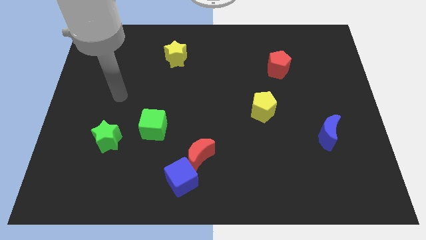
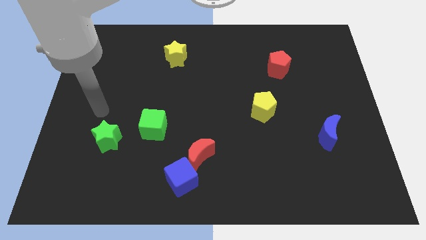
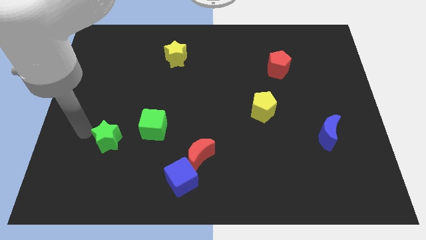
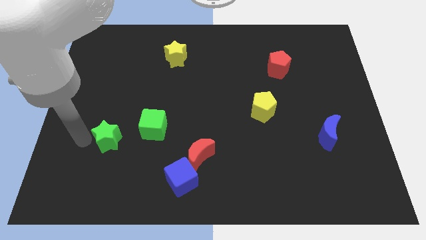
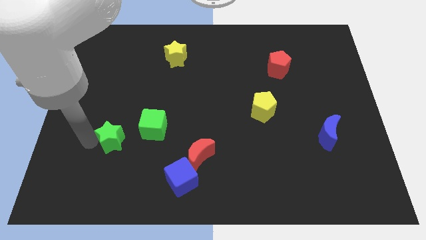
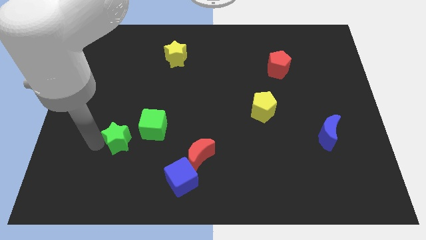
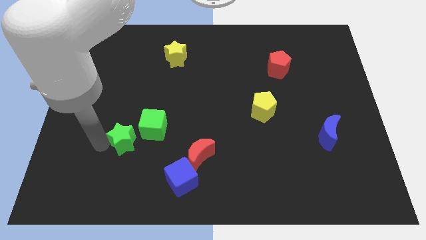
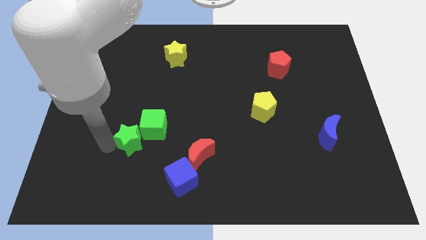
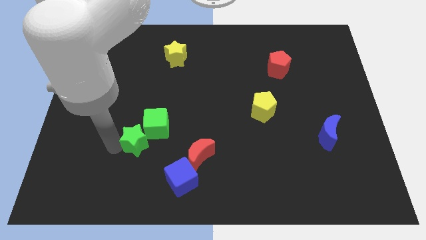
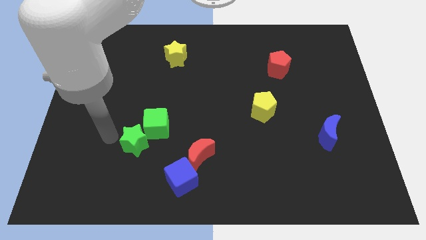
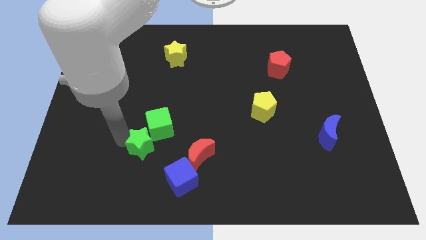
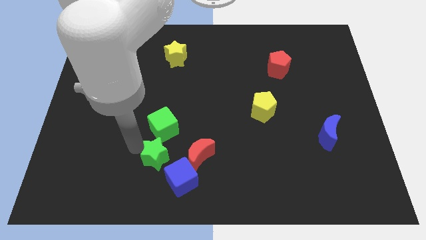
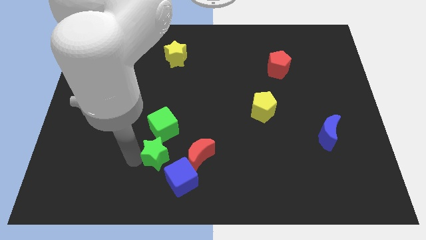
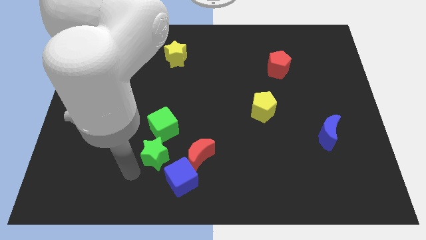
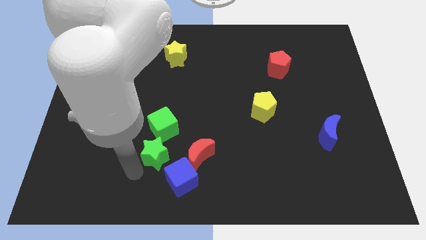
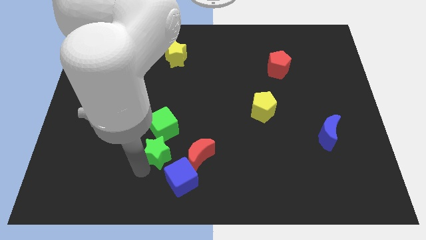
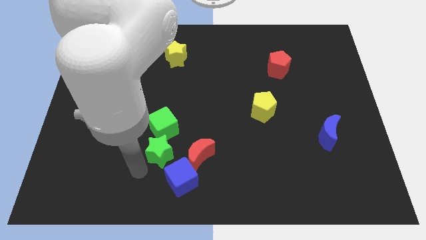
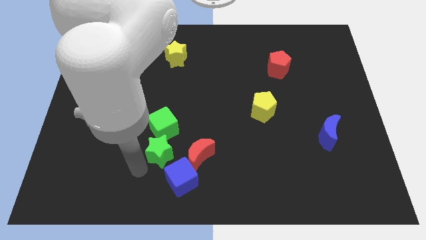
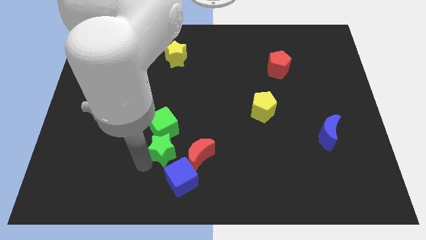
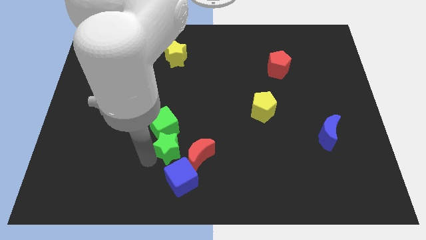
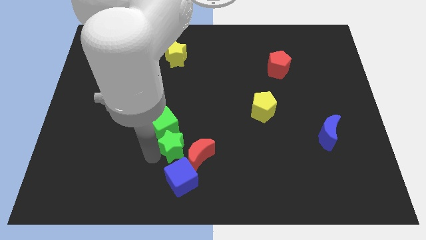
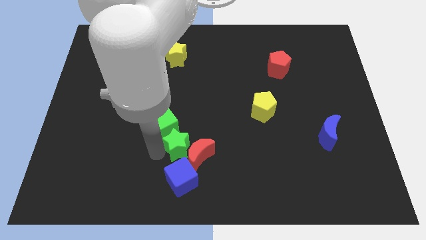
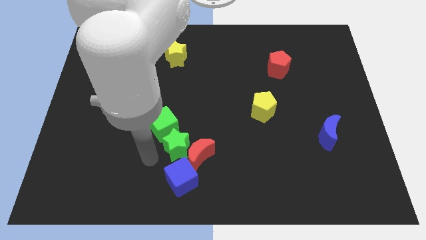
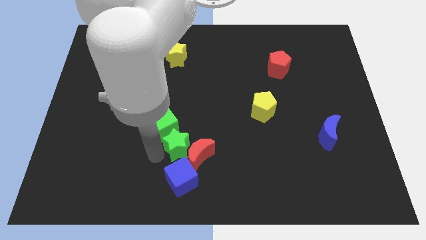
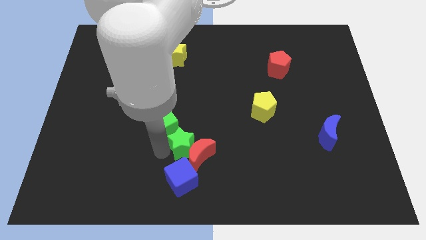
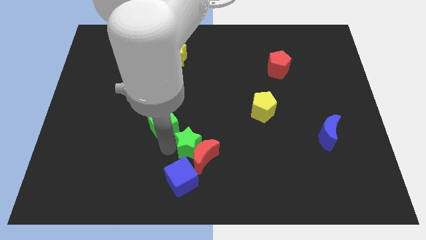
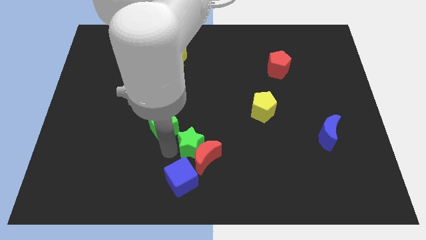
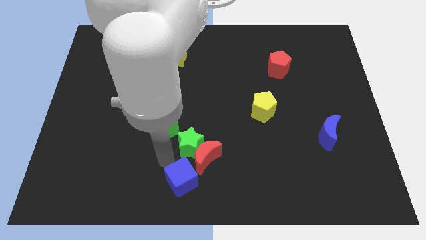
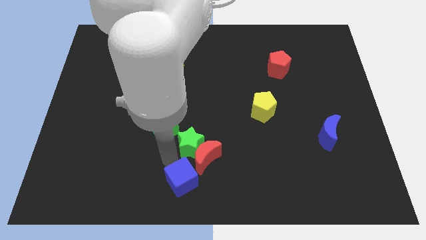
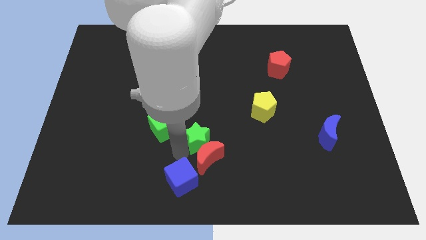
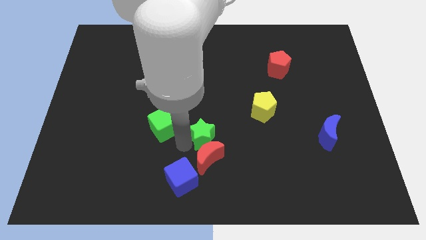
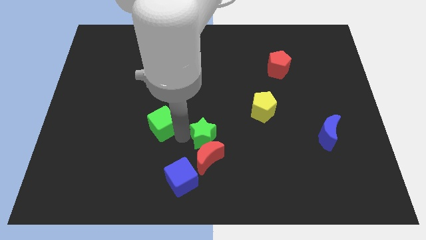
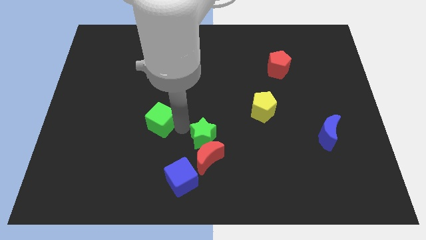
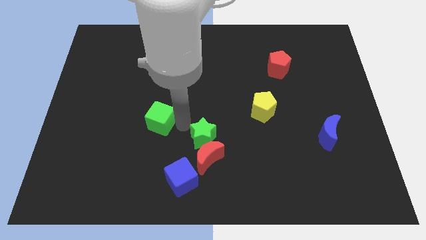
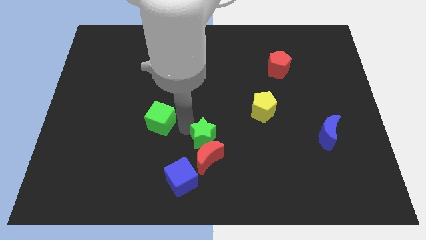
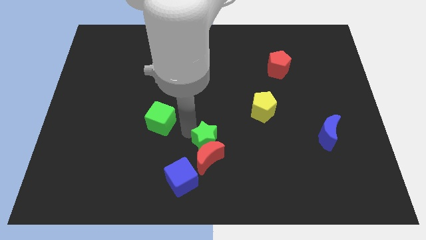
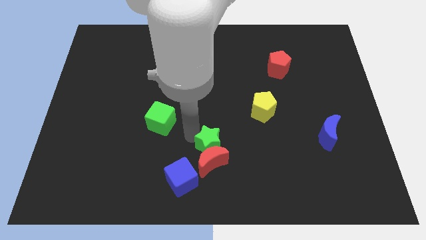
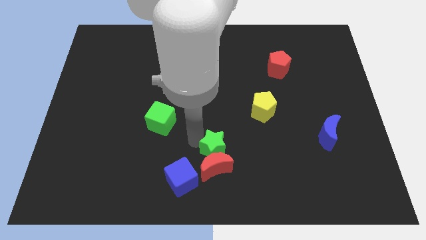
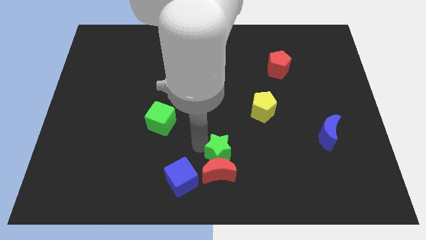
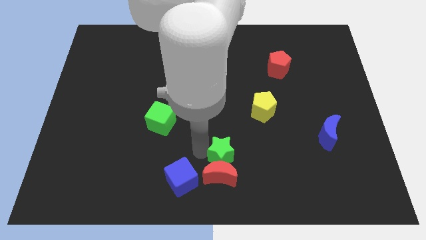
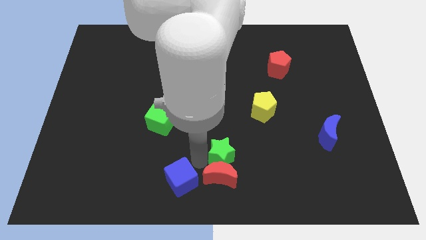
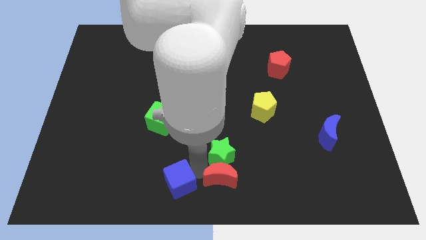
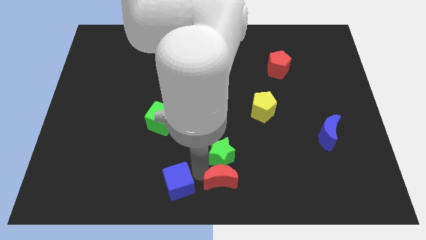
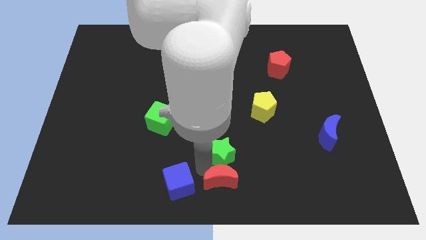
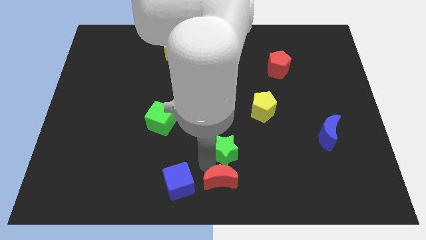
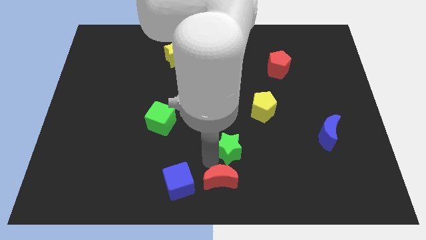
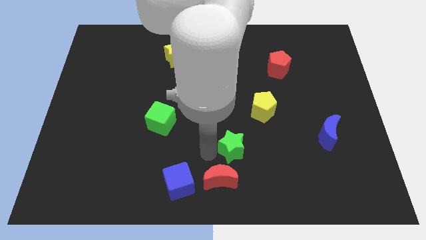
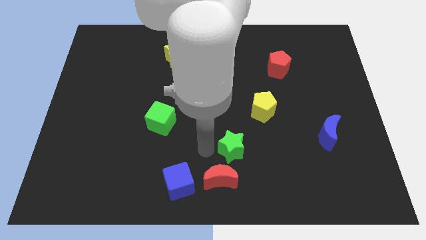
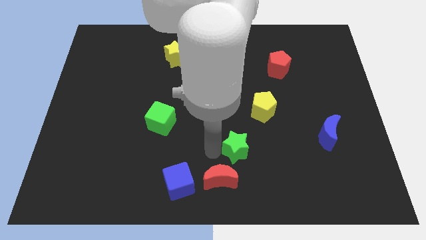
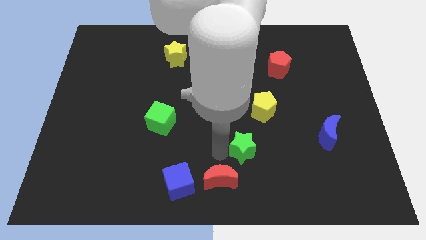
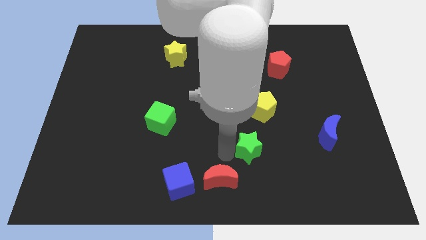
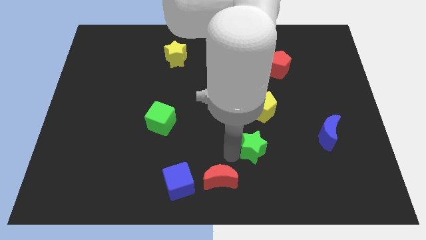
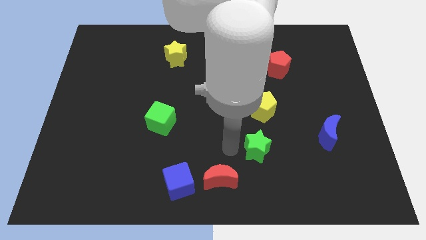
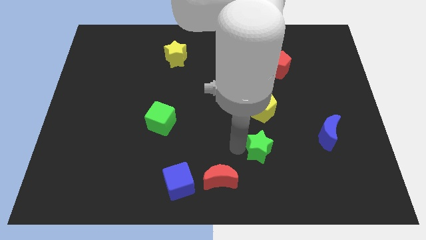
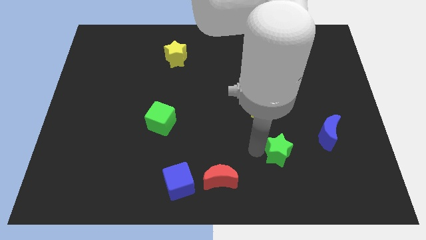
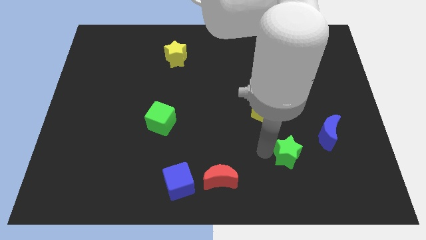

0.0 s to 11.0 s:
push the green star to the bottom left of the blue moon

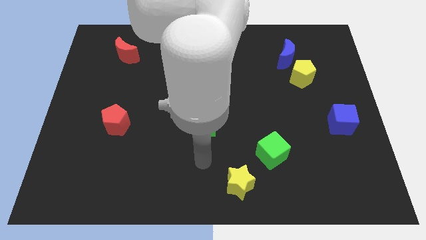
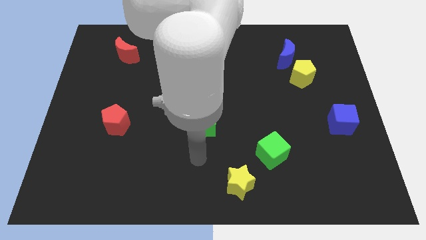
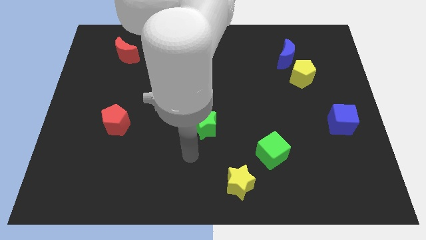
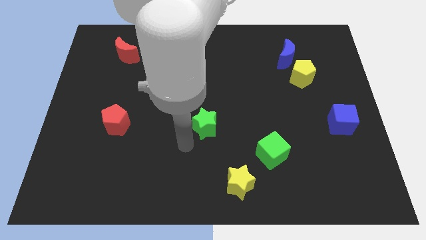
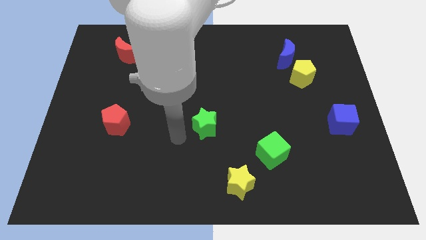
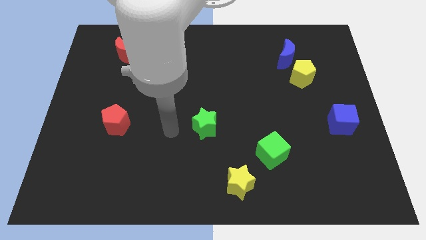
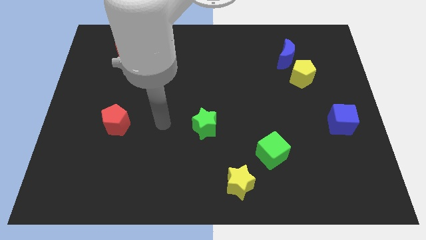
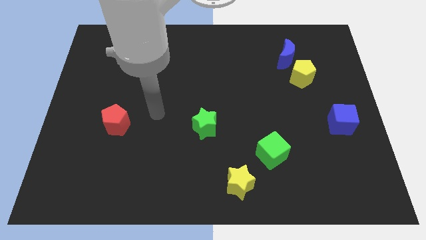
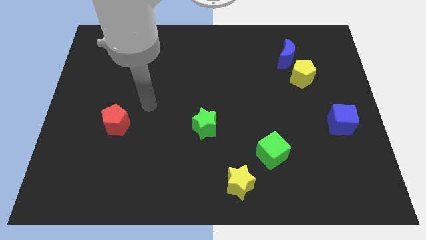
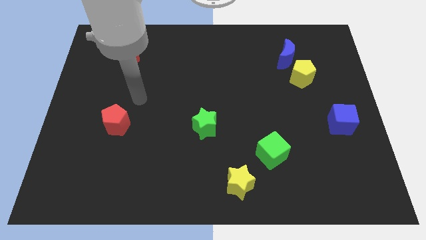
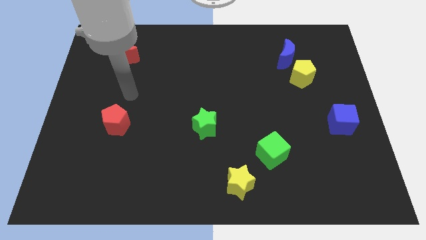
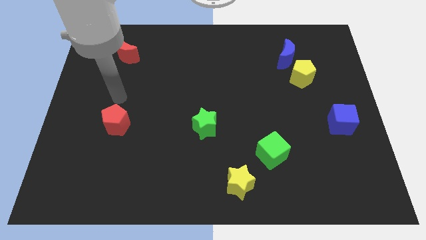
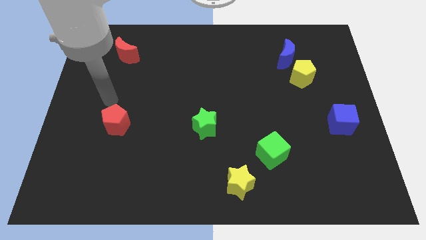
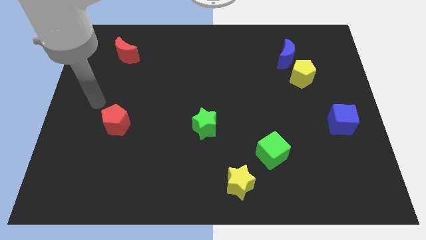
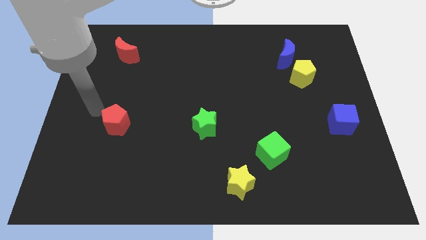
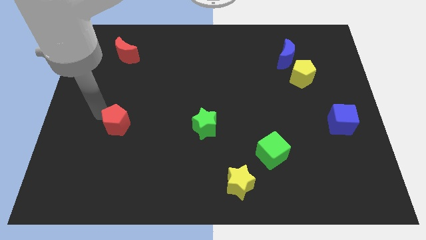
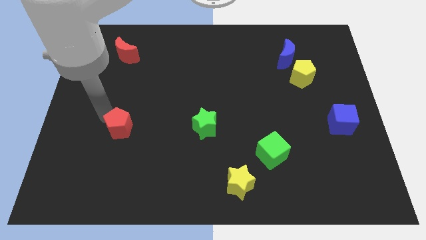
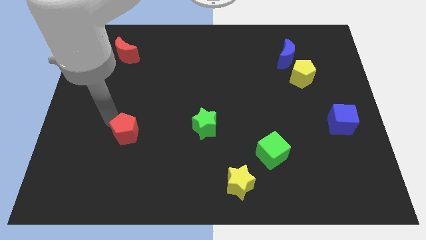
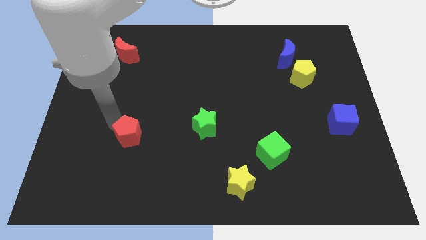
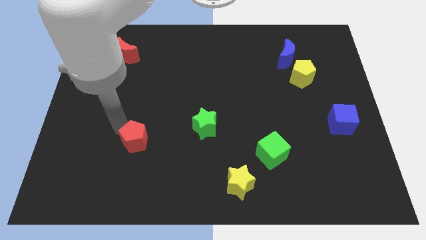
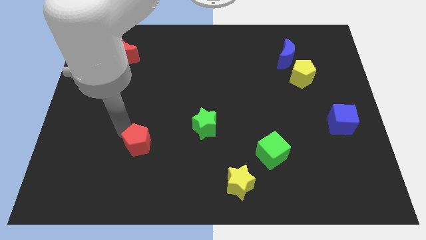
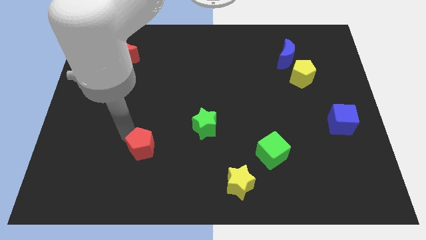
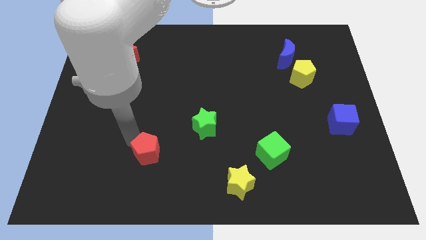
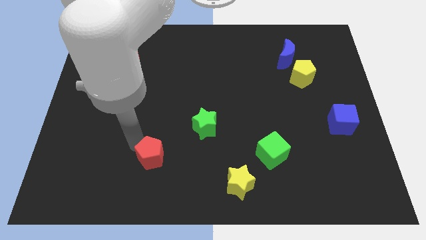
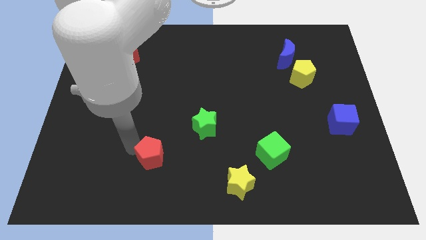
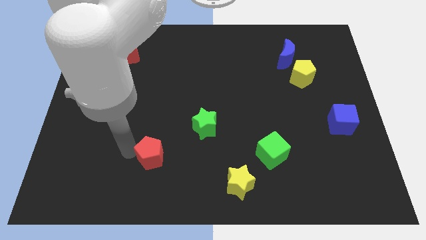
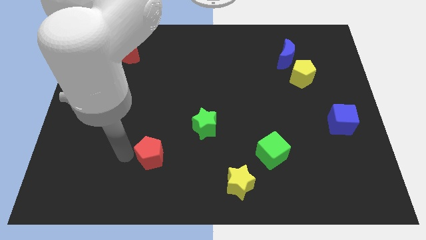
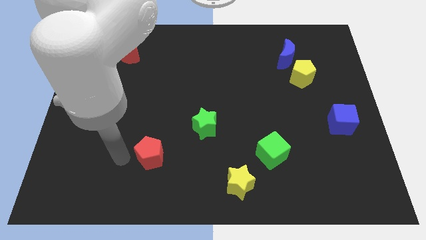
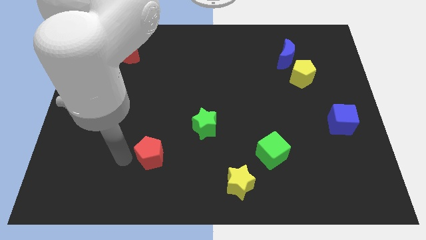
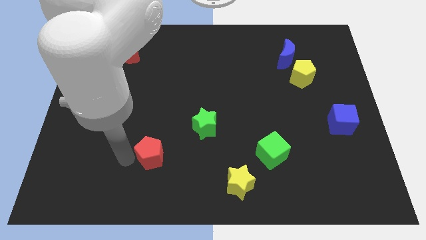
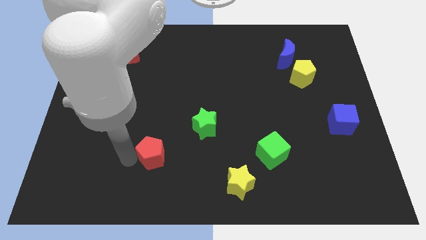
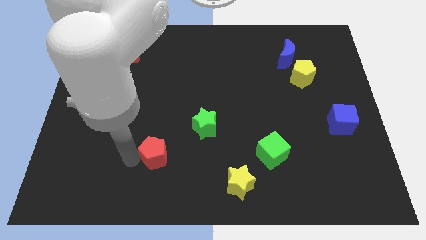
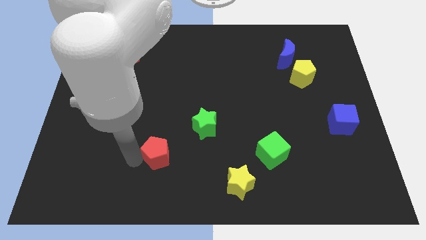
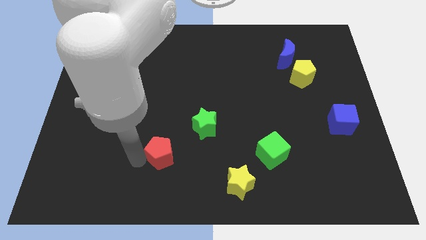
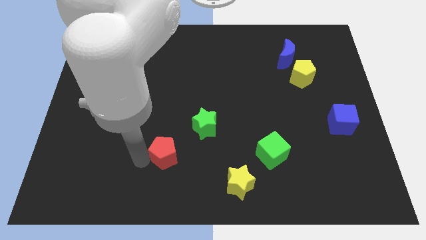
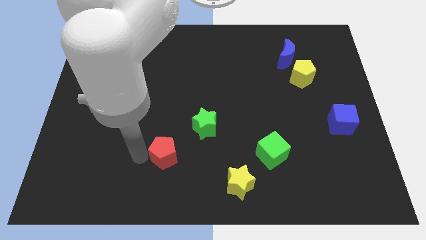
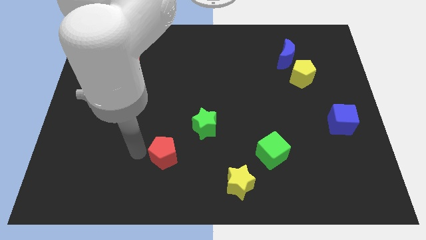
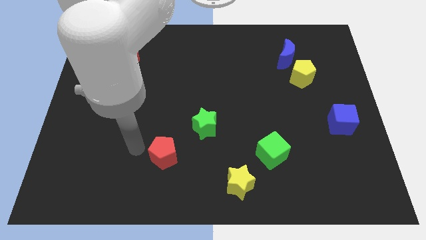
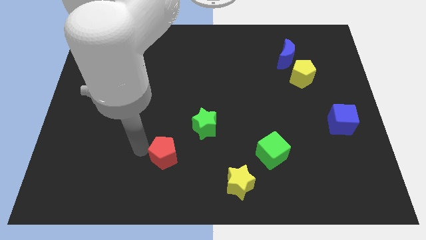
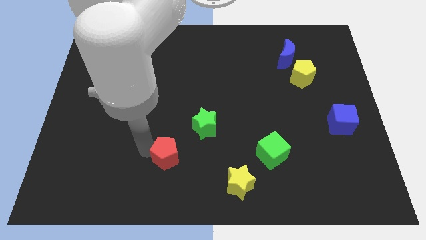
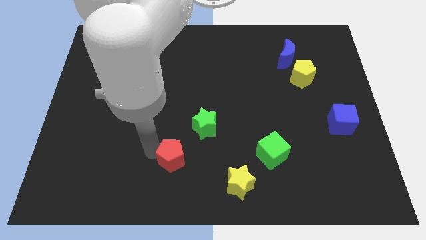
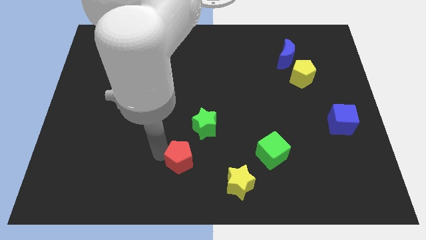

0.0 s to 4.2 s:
slide the red pentagon to the bottom of the green star
